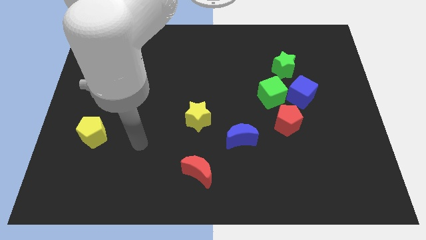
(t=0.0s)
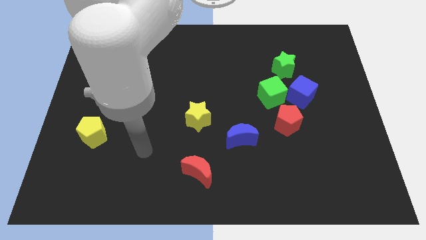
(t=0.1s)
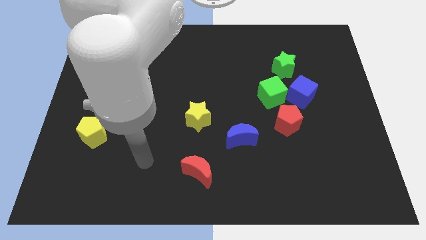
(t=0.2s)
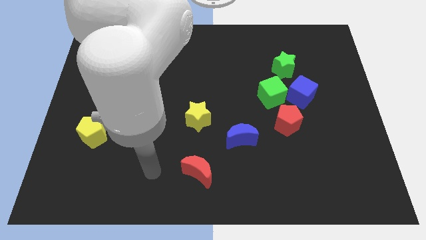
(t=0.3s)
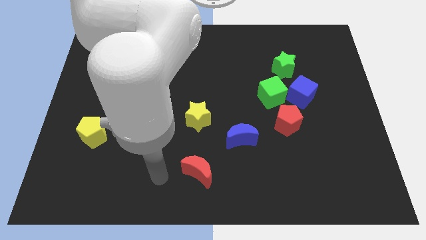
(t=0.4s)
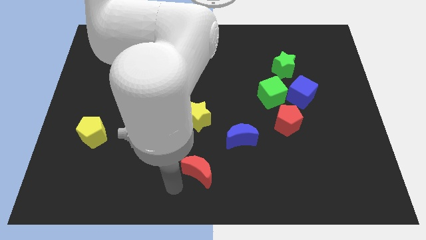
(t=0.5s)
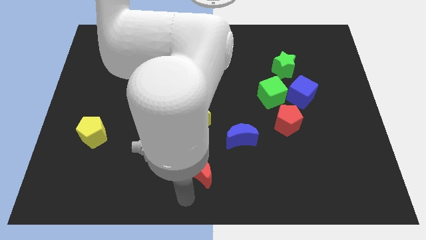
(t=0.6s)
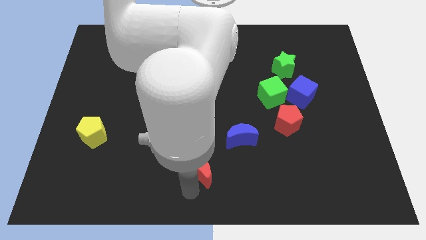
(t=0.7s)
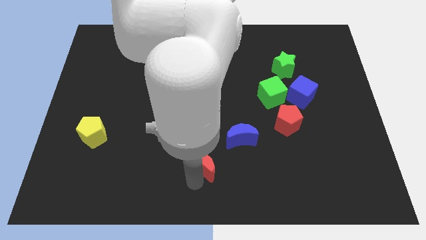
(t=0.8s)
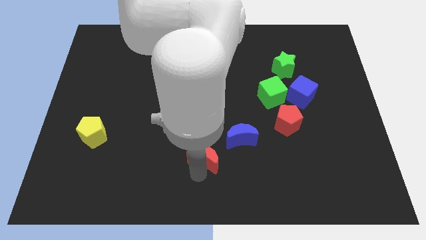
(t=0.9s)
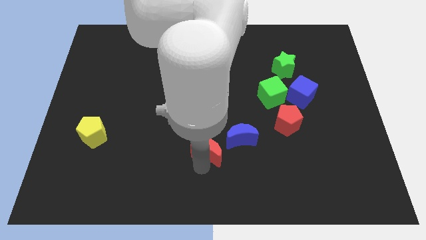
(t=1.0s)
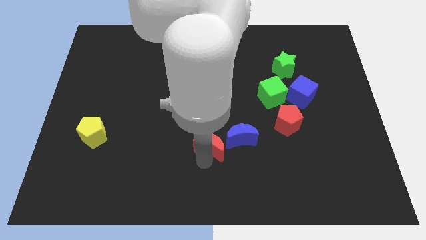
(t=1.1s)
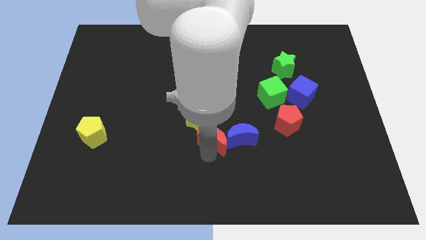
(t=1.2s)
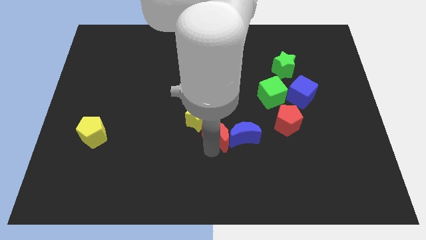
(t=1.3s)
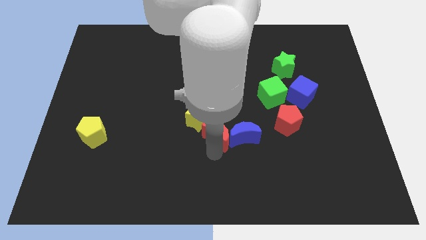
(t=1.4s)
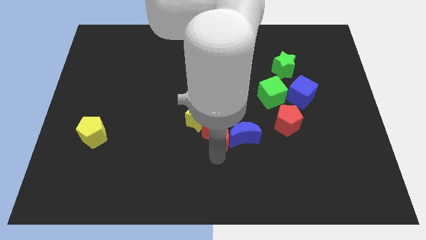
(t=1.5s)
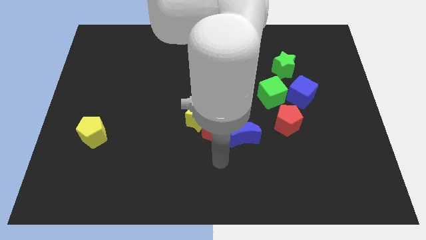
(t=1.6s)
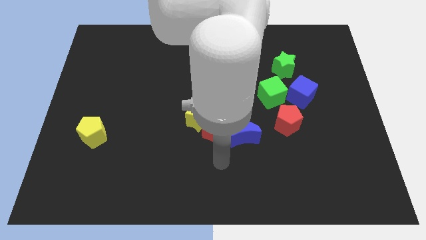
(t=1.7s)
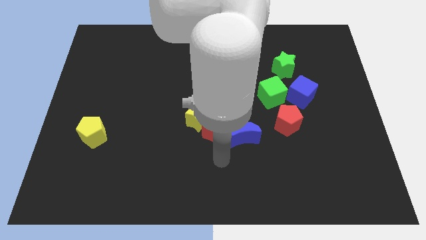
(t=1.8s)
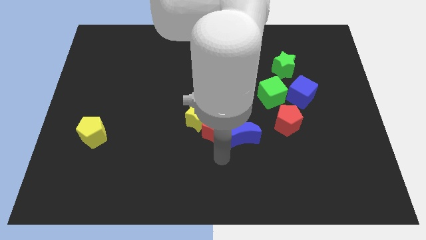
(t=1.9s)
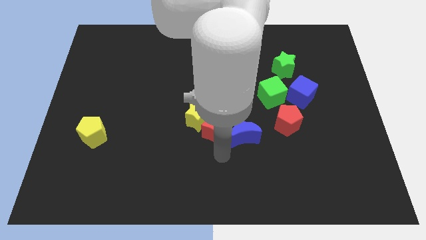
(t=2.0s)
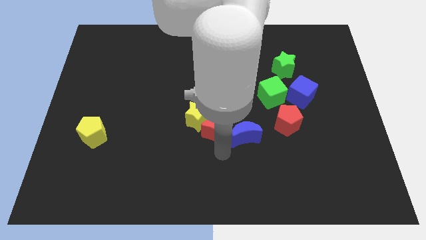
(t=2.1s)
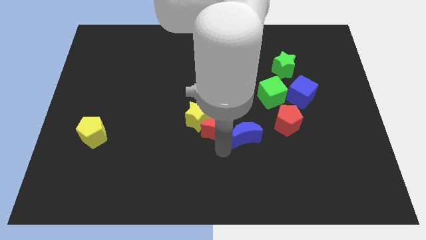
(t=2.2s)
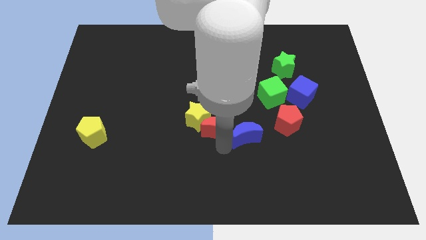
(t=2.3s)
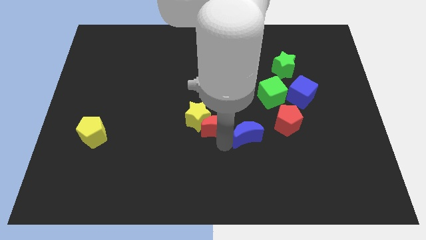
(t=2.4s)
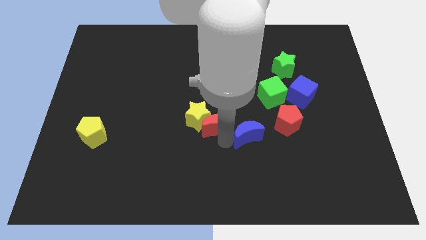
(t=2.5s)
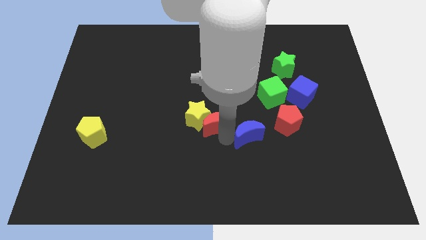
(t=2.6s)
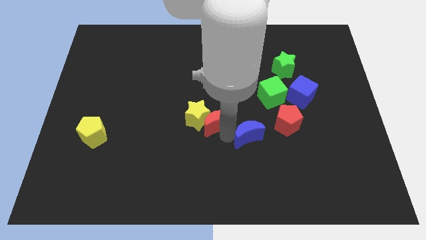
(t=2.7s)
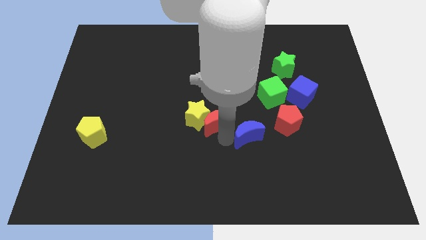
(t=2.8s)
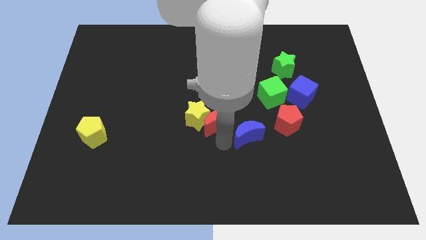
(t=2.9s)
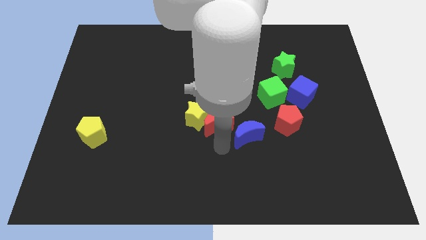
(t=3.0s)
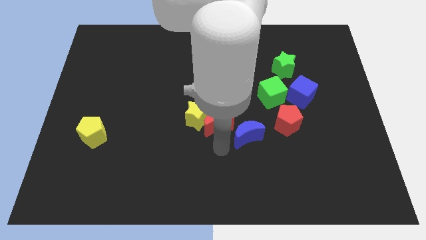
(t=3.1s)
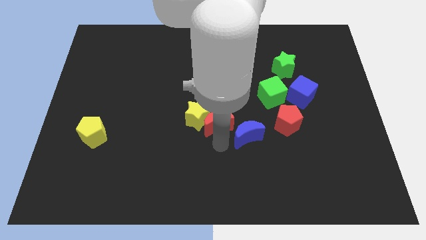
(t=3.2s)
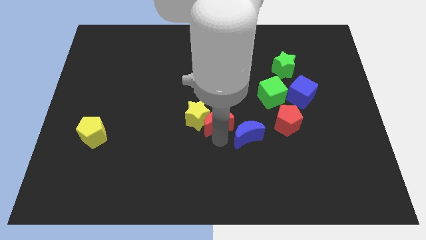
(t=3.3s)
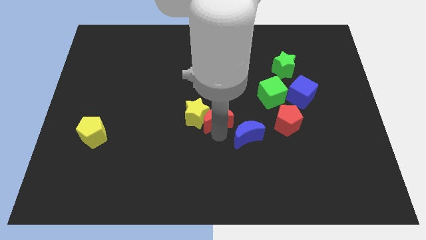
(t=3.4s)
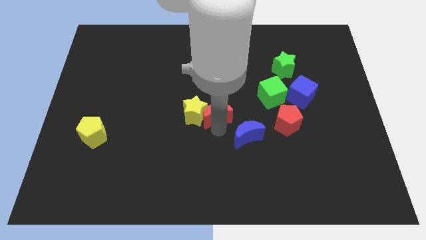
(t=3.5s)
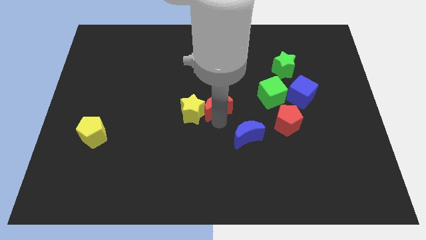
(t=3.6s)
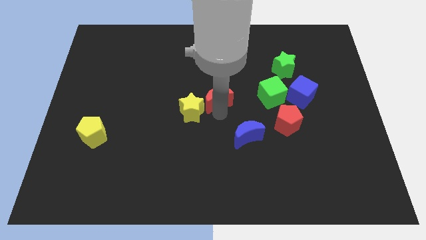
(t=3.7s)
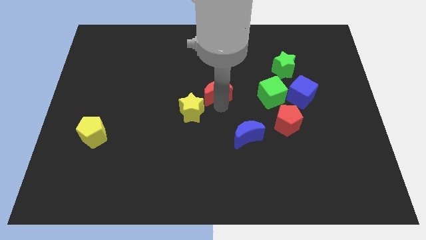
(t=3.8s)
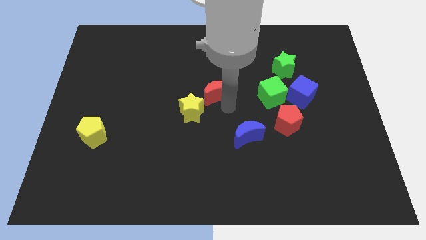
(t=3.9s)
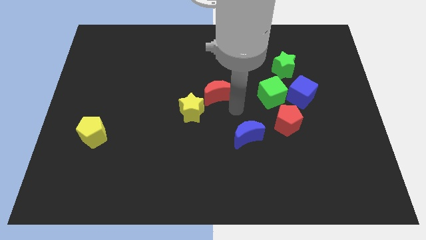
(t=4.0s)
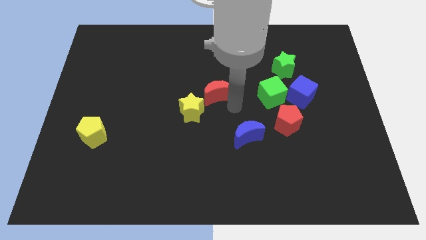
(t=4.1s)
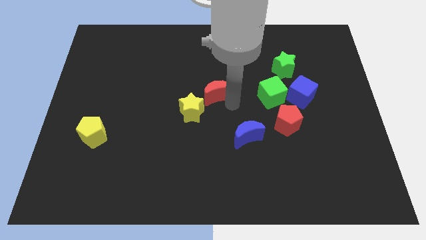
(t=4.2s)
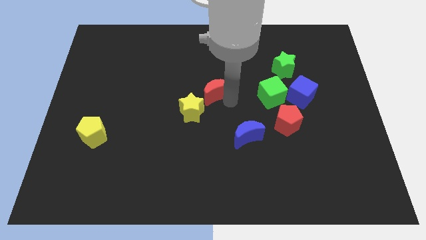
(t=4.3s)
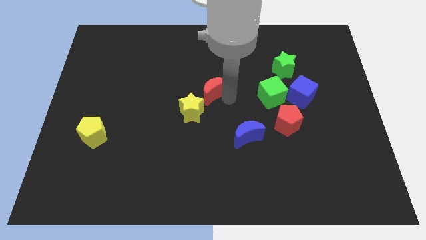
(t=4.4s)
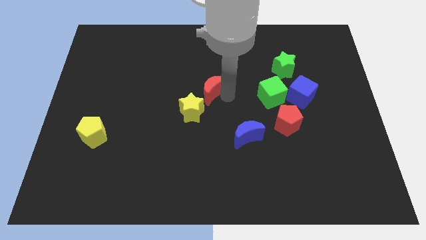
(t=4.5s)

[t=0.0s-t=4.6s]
push the red moon to the top side of the yellow star

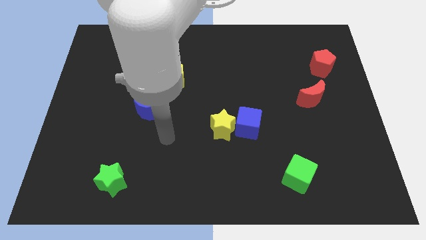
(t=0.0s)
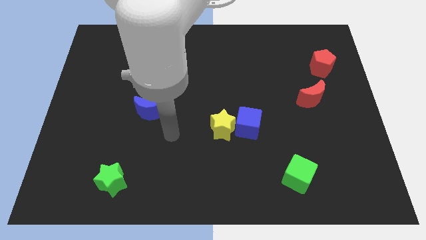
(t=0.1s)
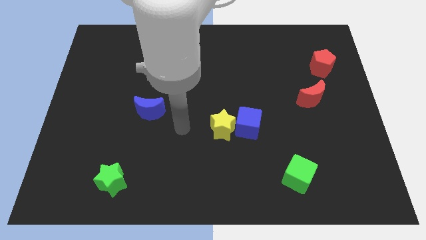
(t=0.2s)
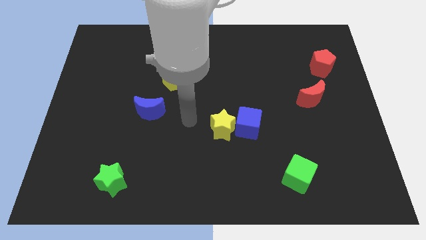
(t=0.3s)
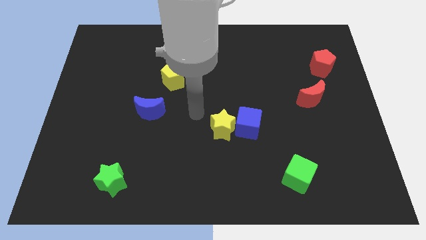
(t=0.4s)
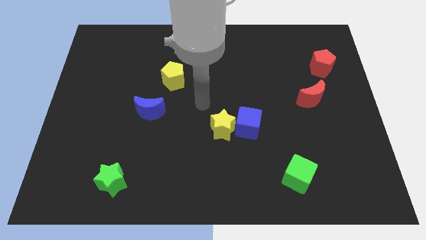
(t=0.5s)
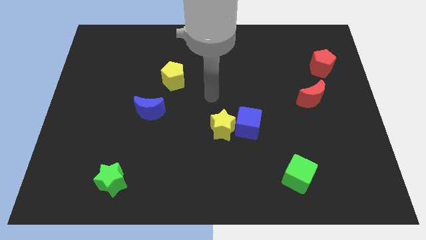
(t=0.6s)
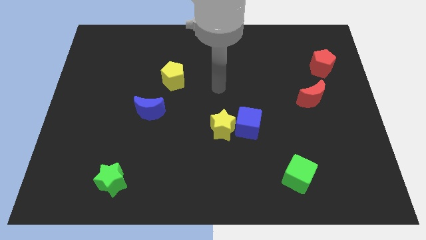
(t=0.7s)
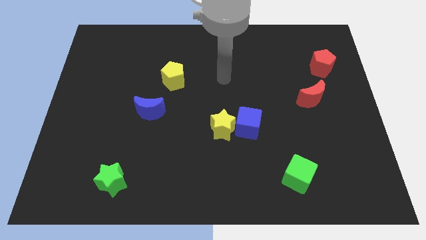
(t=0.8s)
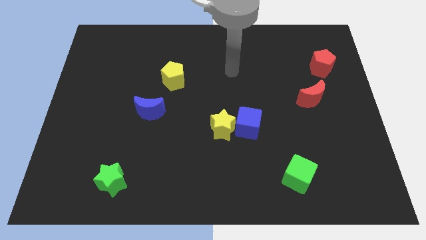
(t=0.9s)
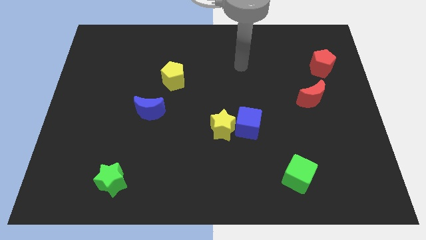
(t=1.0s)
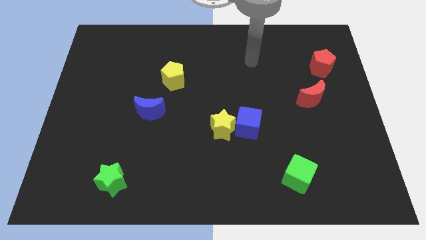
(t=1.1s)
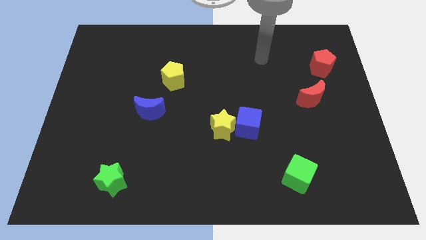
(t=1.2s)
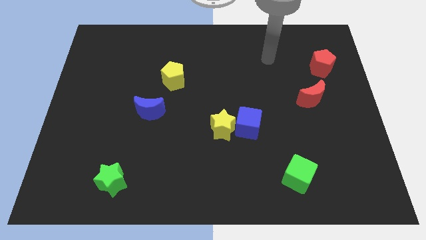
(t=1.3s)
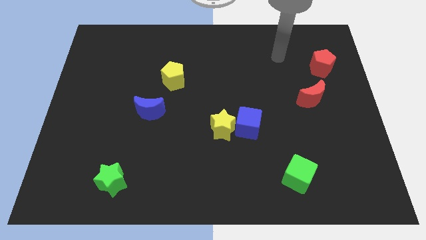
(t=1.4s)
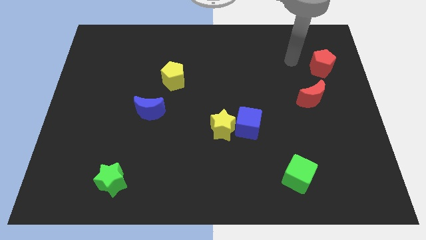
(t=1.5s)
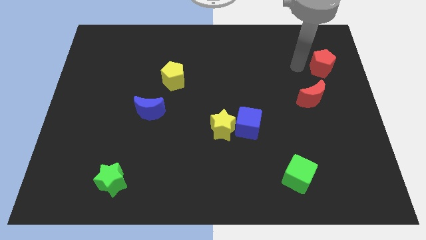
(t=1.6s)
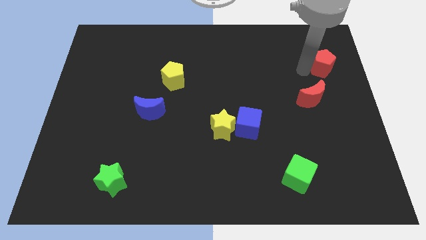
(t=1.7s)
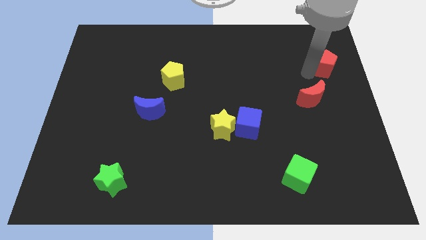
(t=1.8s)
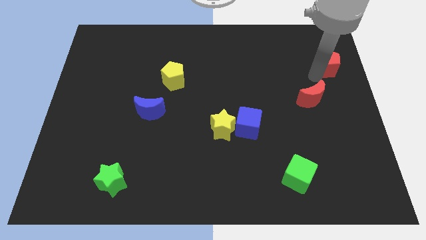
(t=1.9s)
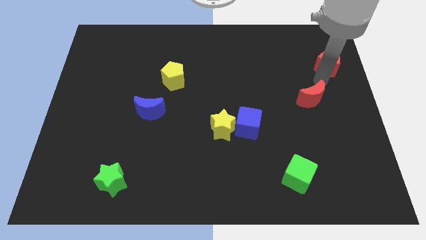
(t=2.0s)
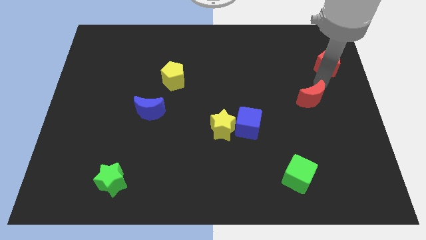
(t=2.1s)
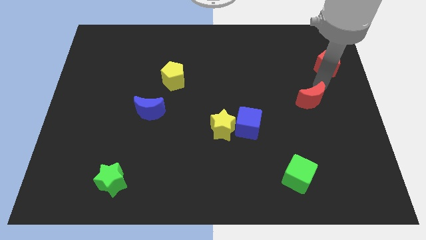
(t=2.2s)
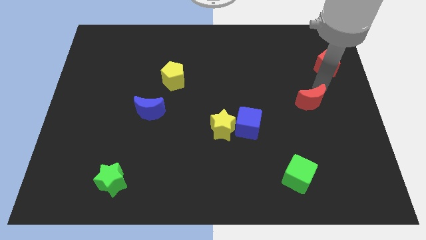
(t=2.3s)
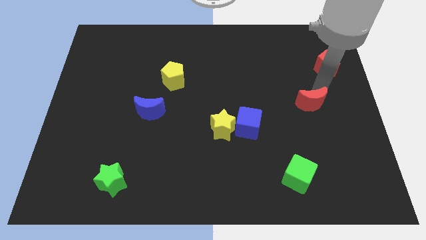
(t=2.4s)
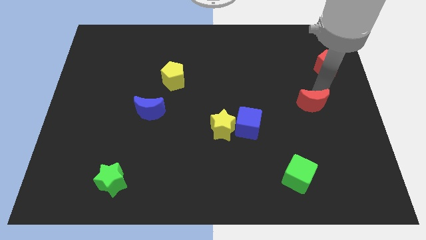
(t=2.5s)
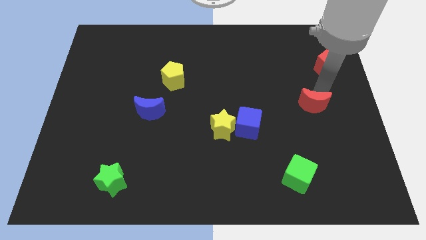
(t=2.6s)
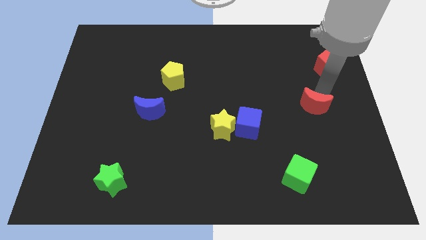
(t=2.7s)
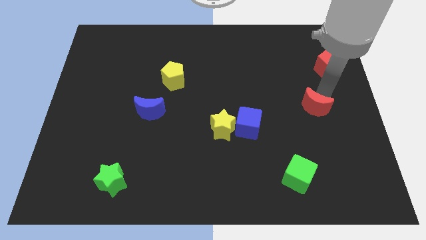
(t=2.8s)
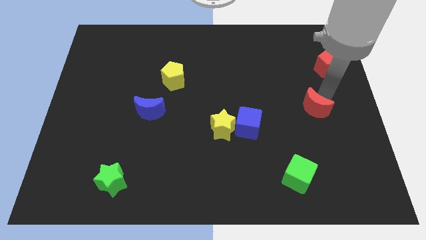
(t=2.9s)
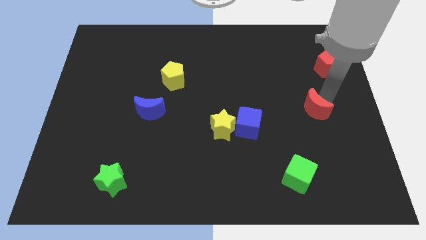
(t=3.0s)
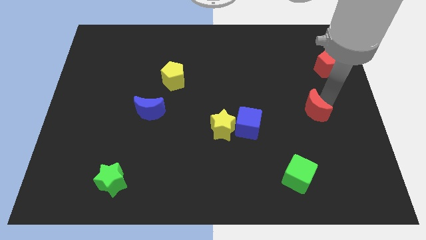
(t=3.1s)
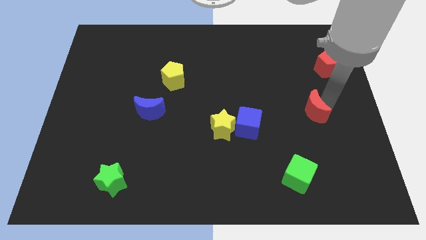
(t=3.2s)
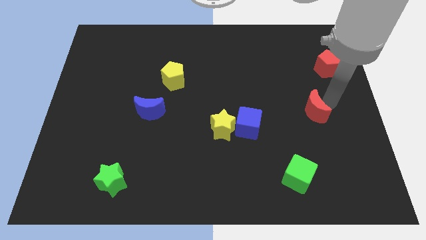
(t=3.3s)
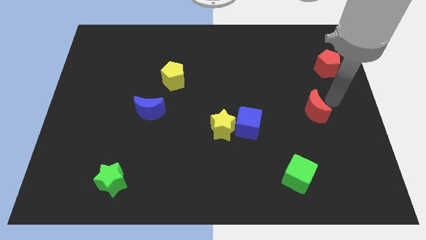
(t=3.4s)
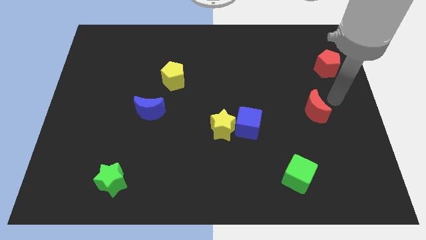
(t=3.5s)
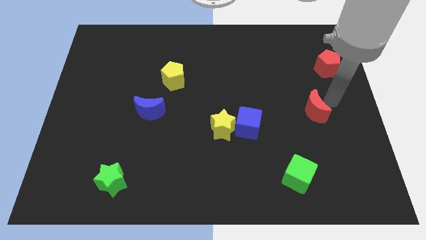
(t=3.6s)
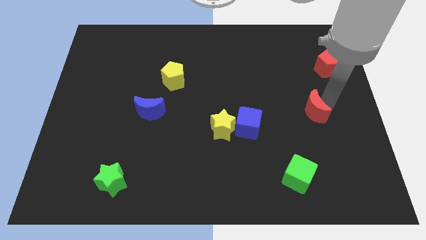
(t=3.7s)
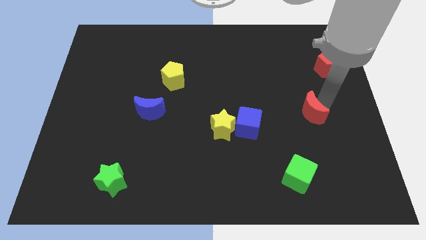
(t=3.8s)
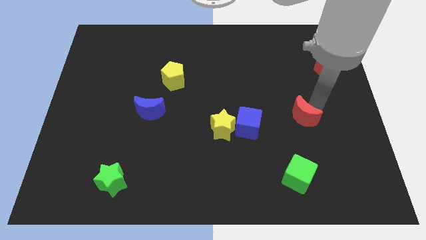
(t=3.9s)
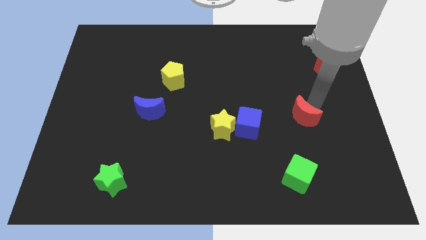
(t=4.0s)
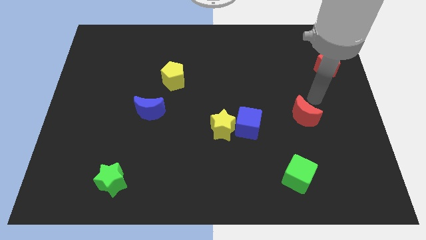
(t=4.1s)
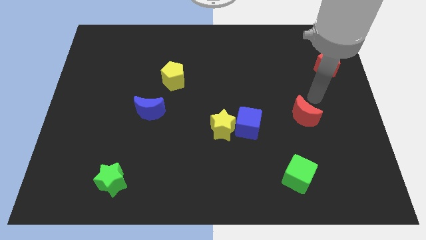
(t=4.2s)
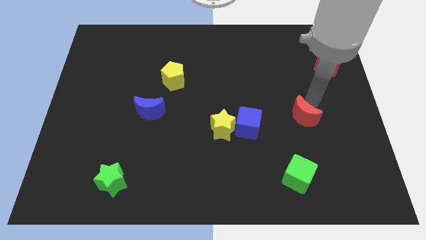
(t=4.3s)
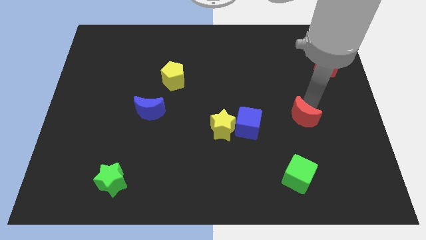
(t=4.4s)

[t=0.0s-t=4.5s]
push the red moon above the green cube
